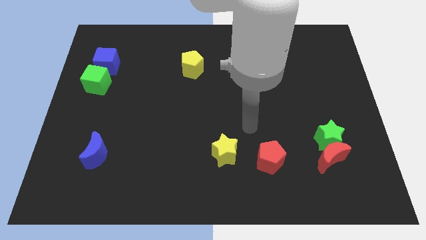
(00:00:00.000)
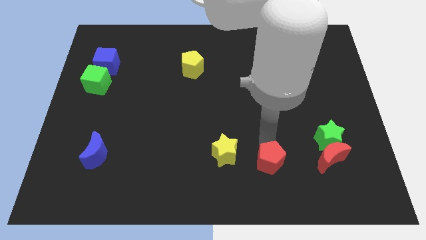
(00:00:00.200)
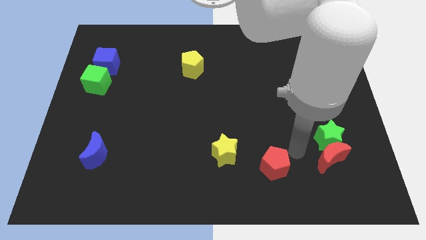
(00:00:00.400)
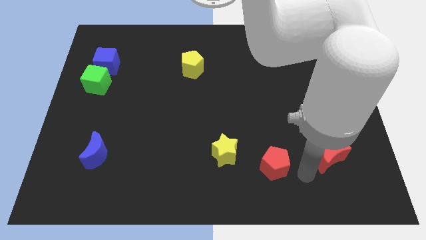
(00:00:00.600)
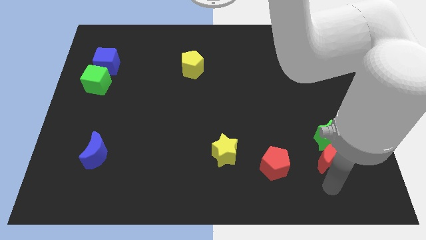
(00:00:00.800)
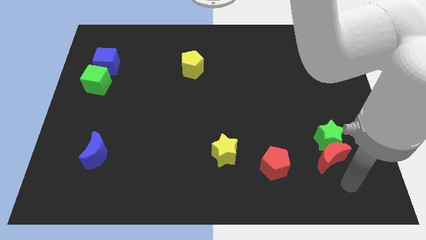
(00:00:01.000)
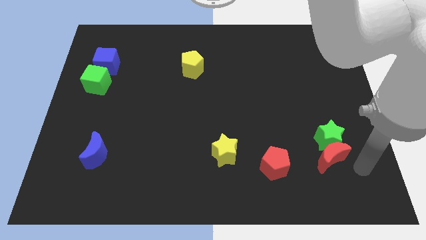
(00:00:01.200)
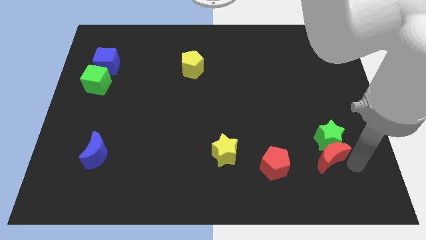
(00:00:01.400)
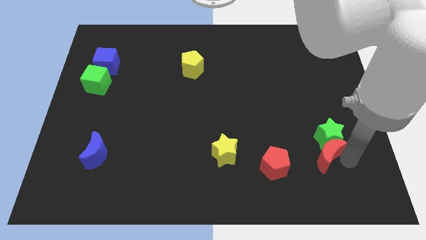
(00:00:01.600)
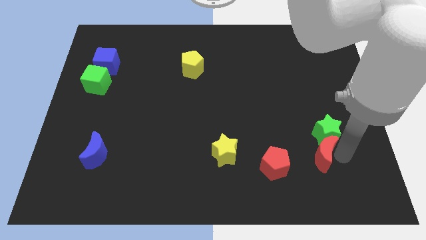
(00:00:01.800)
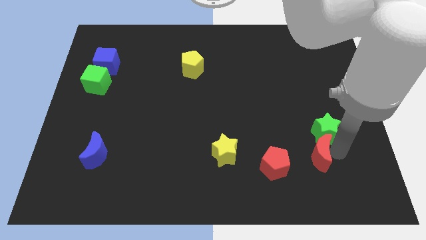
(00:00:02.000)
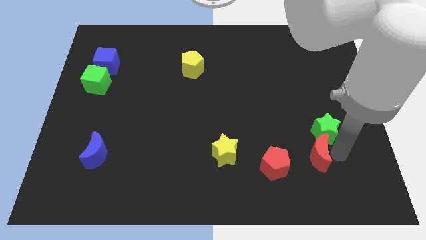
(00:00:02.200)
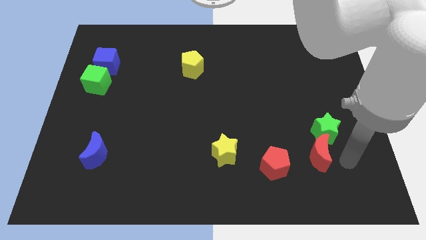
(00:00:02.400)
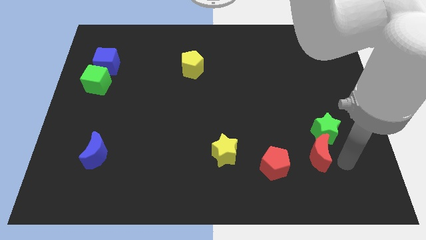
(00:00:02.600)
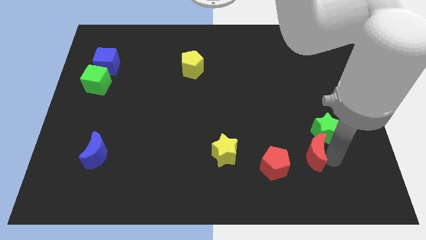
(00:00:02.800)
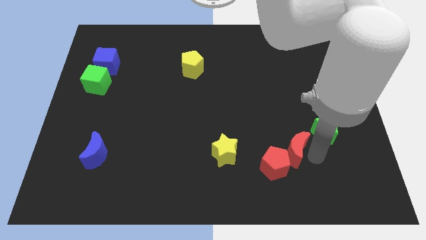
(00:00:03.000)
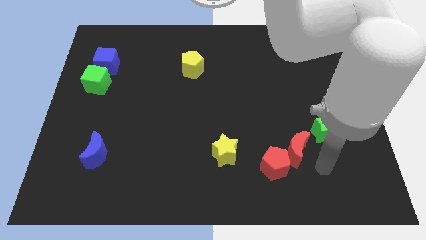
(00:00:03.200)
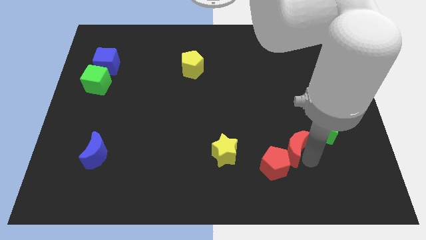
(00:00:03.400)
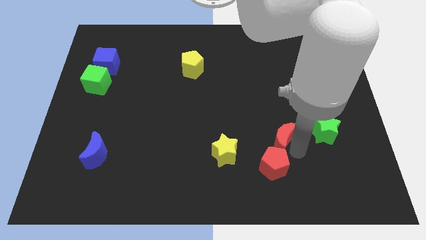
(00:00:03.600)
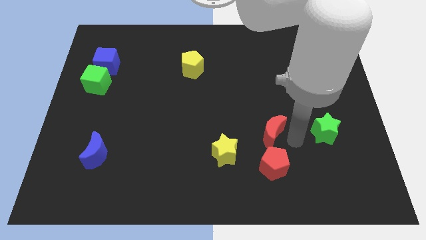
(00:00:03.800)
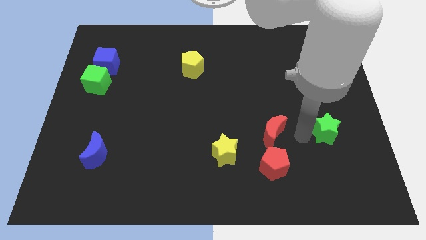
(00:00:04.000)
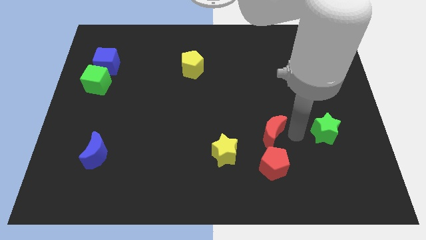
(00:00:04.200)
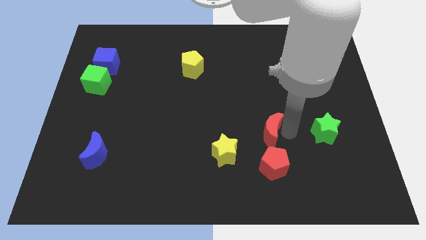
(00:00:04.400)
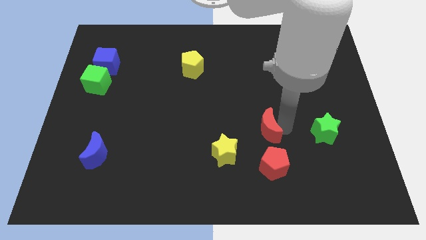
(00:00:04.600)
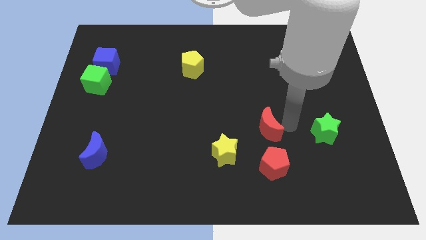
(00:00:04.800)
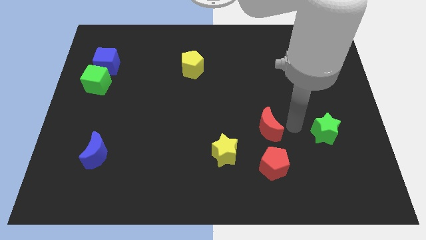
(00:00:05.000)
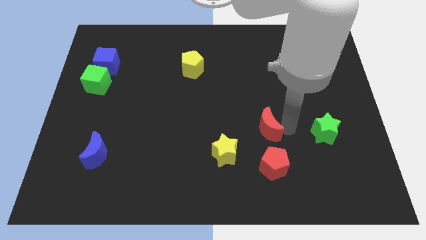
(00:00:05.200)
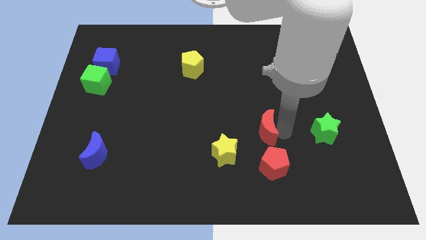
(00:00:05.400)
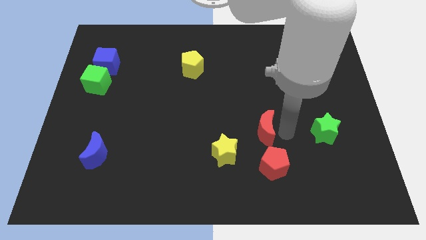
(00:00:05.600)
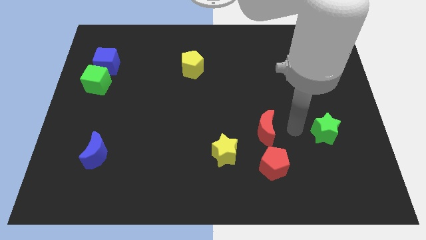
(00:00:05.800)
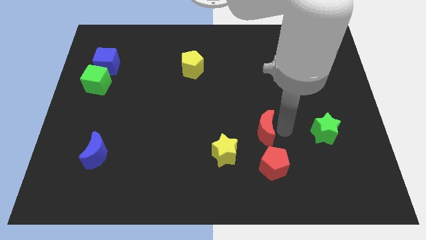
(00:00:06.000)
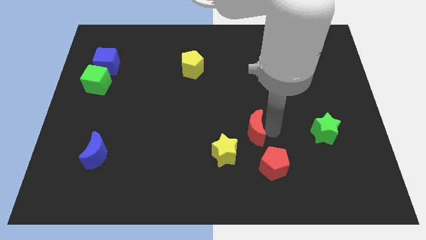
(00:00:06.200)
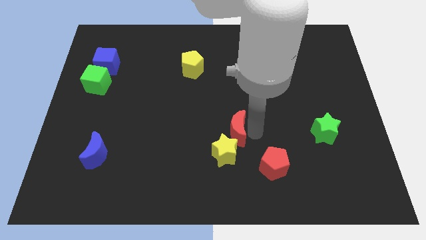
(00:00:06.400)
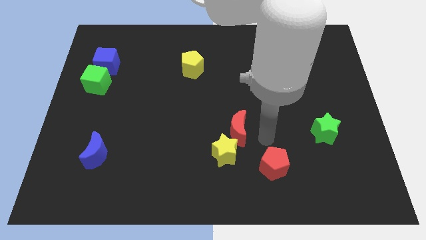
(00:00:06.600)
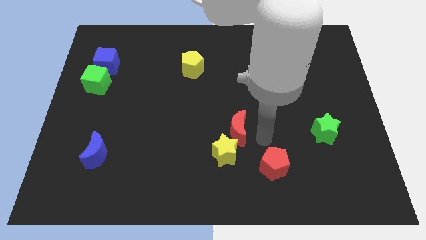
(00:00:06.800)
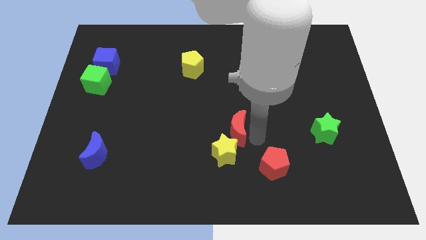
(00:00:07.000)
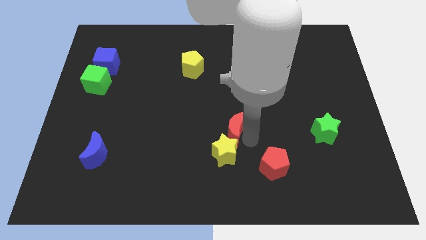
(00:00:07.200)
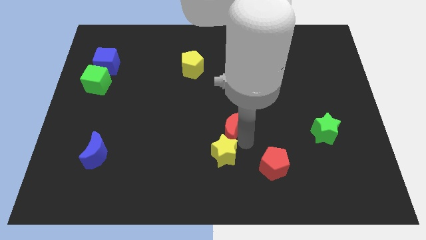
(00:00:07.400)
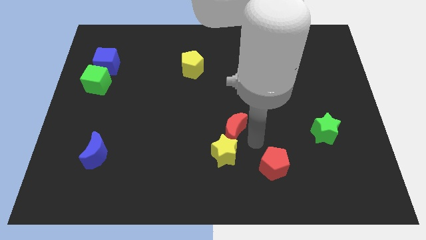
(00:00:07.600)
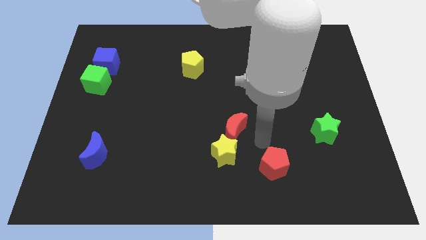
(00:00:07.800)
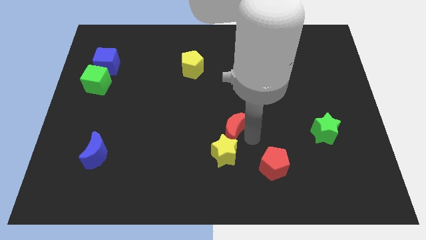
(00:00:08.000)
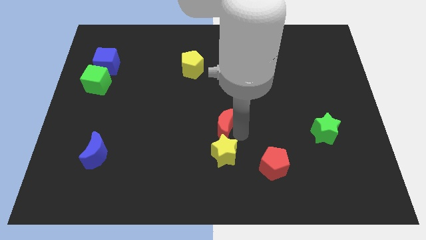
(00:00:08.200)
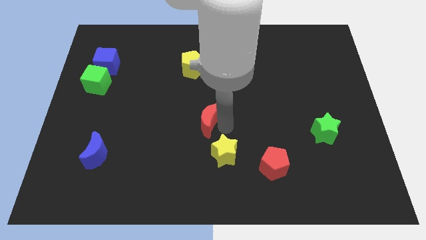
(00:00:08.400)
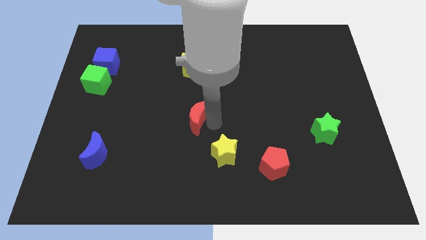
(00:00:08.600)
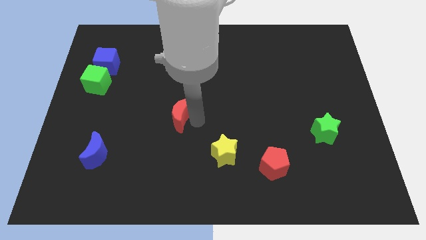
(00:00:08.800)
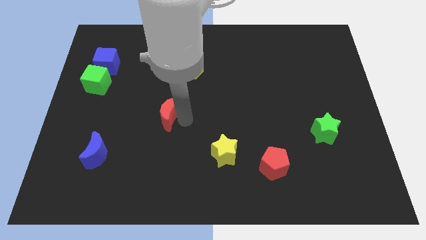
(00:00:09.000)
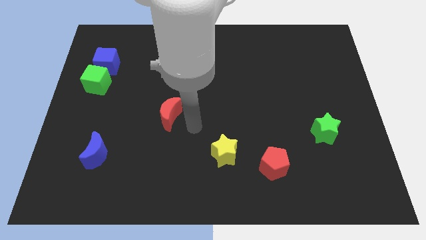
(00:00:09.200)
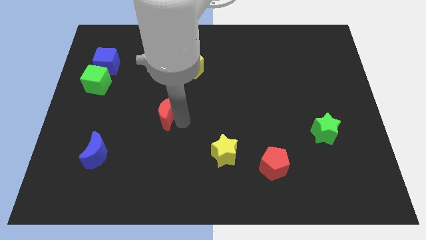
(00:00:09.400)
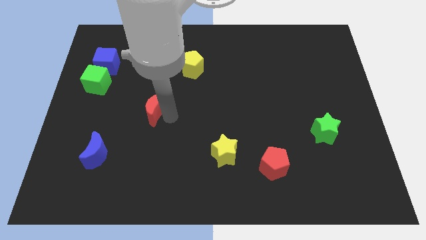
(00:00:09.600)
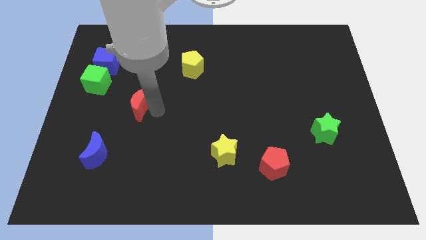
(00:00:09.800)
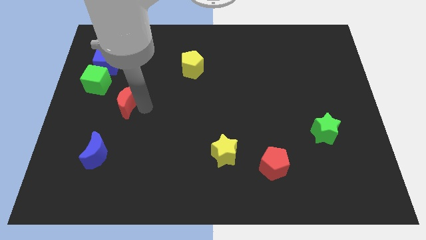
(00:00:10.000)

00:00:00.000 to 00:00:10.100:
put the red moon to the bottom right of the green cube
